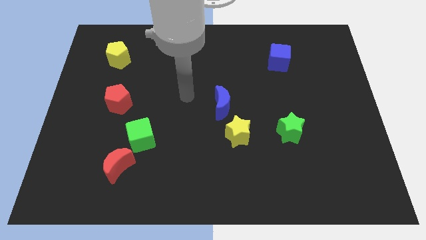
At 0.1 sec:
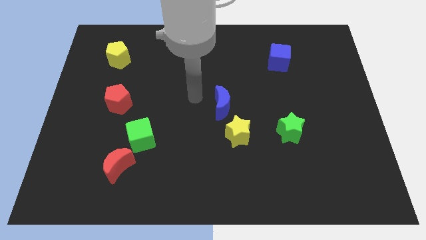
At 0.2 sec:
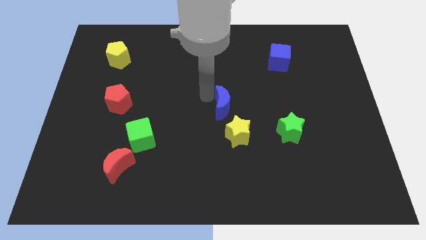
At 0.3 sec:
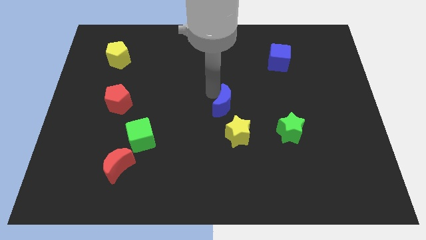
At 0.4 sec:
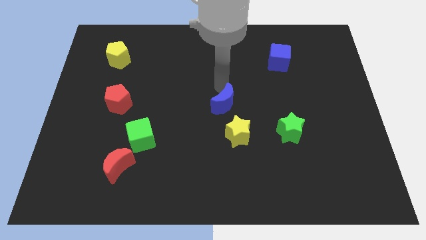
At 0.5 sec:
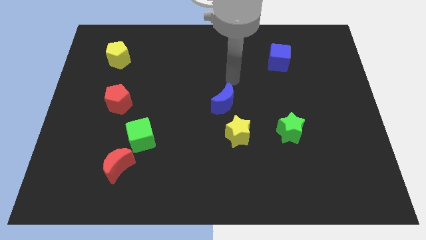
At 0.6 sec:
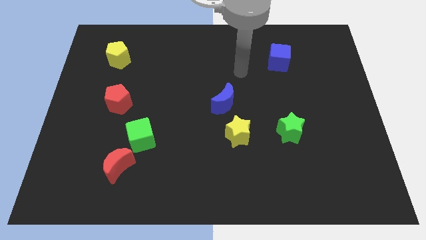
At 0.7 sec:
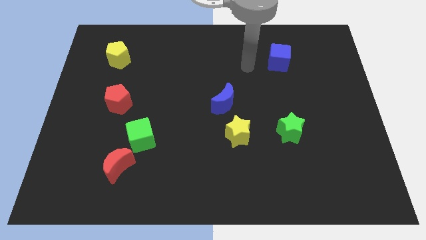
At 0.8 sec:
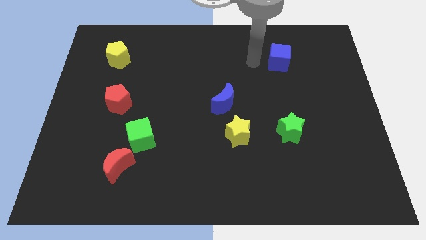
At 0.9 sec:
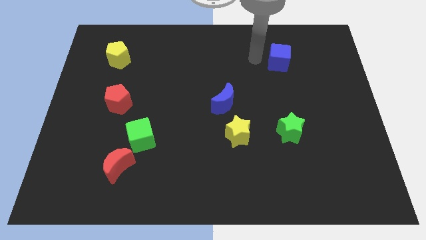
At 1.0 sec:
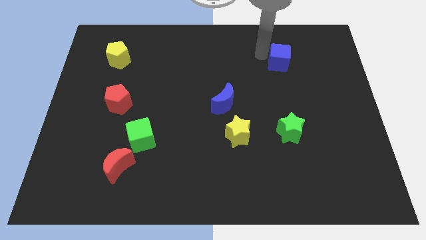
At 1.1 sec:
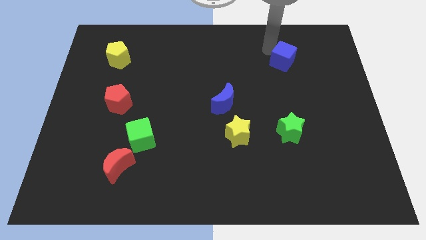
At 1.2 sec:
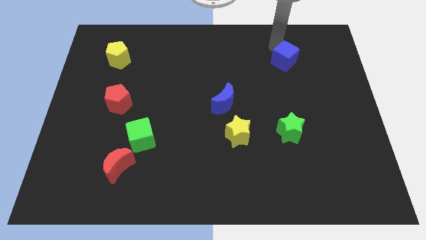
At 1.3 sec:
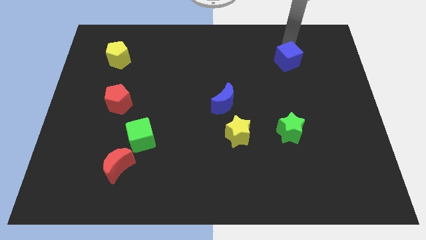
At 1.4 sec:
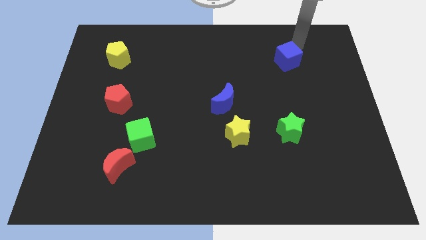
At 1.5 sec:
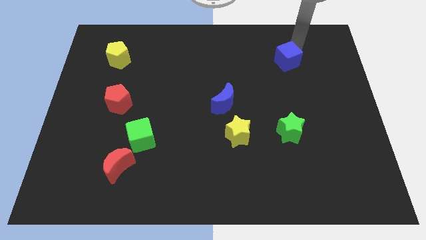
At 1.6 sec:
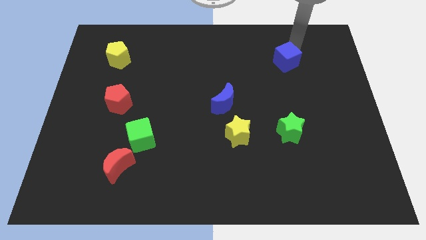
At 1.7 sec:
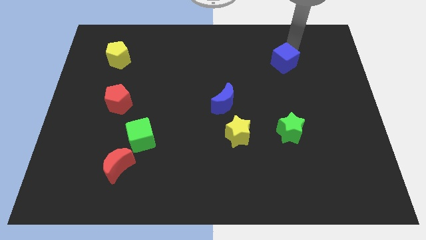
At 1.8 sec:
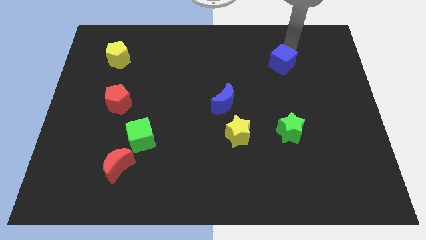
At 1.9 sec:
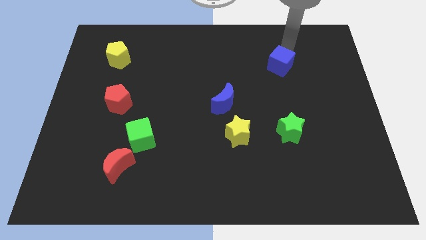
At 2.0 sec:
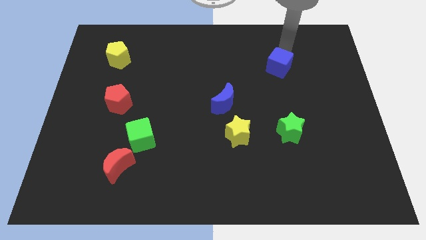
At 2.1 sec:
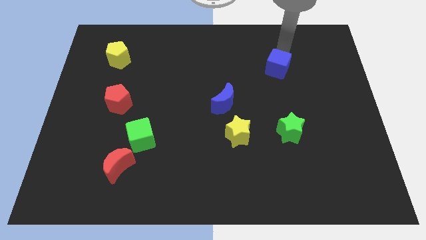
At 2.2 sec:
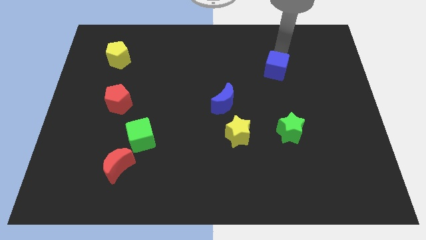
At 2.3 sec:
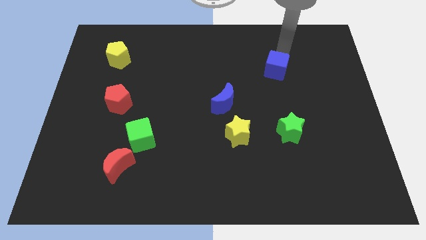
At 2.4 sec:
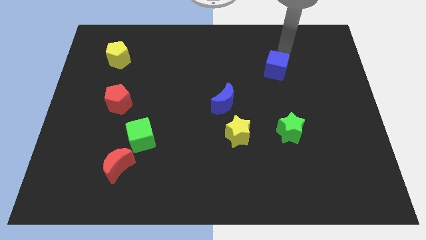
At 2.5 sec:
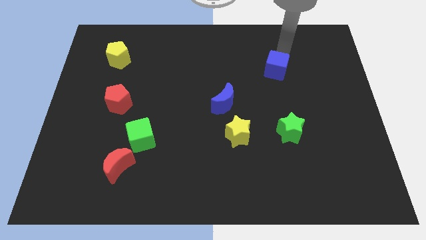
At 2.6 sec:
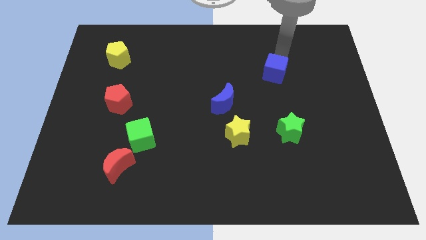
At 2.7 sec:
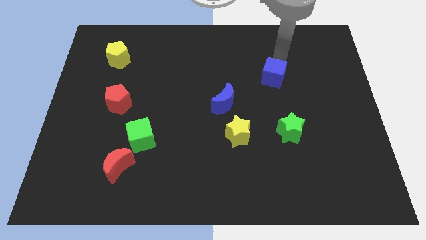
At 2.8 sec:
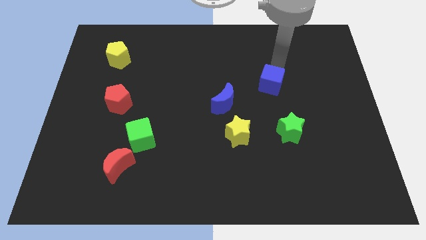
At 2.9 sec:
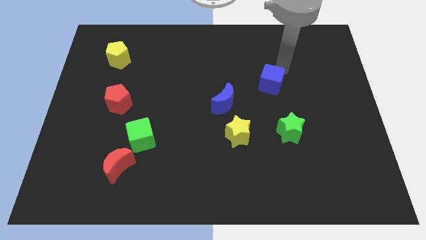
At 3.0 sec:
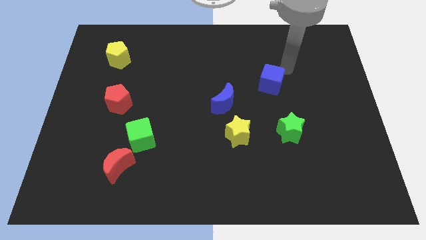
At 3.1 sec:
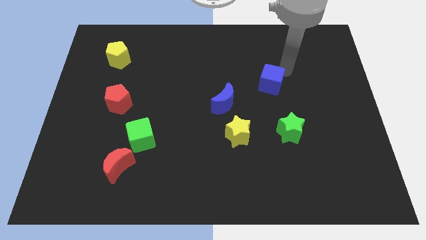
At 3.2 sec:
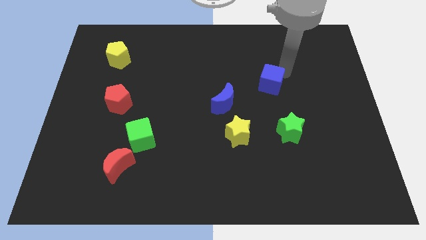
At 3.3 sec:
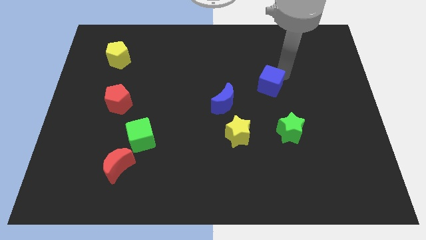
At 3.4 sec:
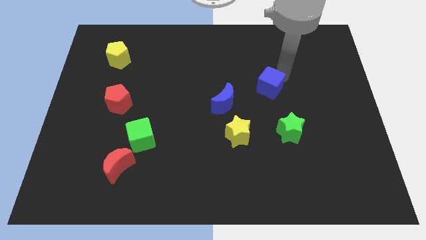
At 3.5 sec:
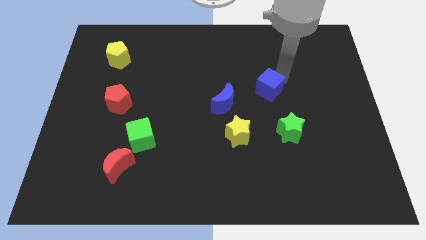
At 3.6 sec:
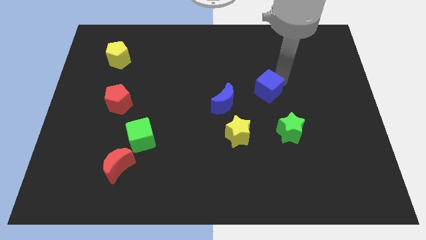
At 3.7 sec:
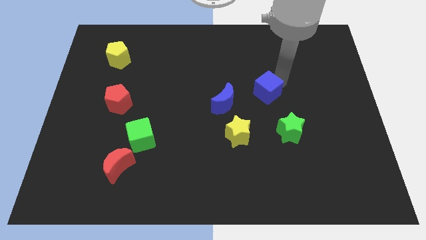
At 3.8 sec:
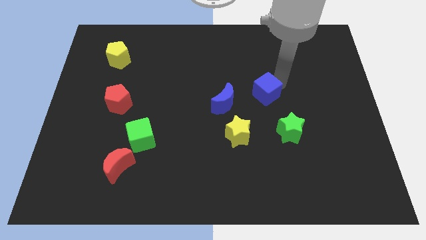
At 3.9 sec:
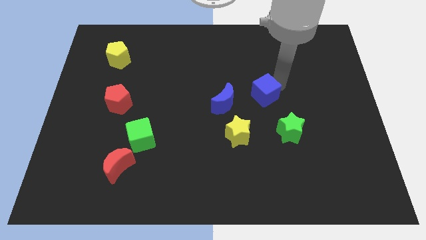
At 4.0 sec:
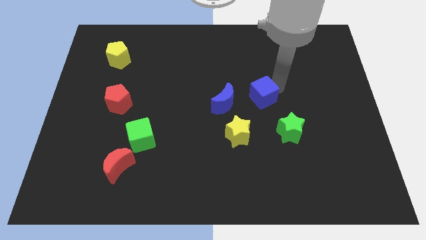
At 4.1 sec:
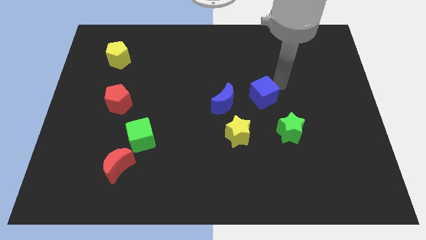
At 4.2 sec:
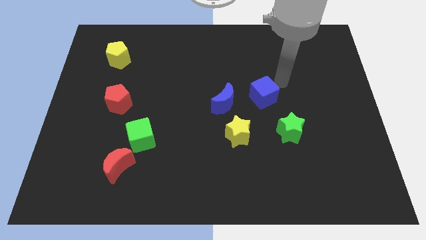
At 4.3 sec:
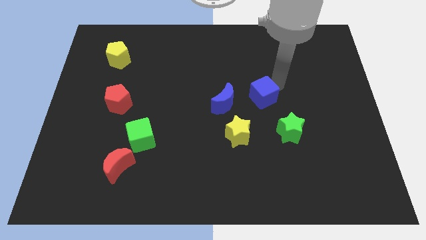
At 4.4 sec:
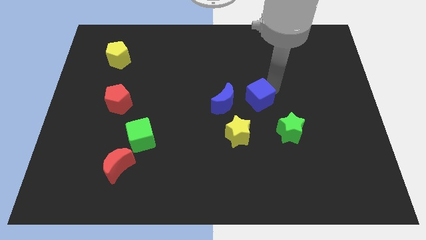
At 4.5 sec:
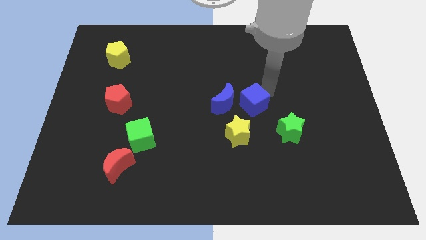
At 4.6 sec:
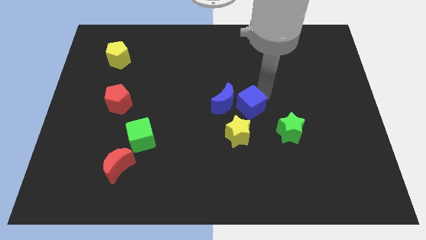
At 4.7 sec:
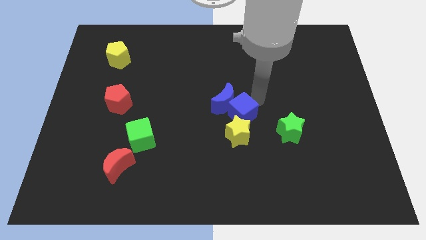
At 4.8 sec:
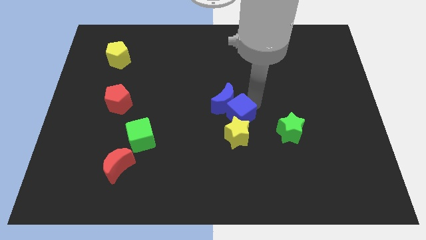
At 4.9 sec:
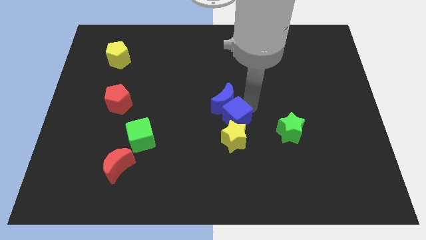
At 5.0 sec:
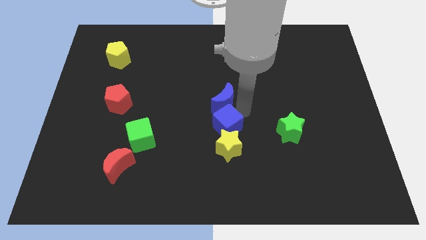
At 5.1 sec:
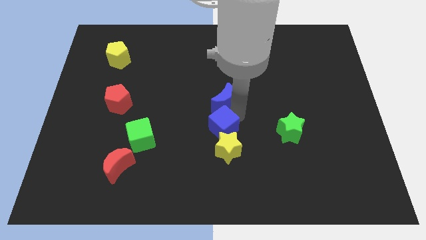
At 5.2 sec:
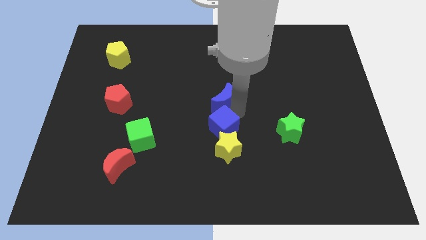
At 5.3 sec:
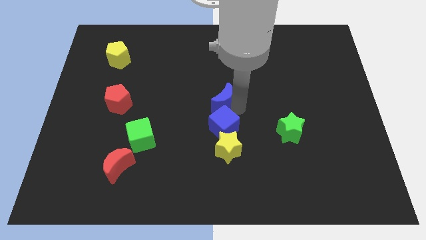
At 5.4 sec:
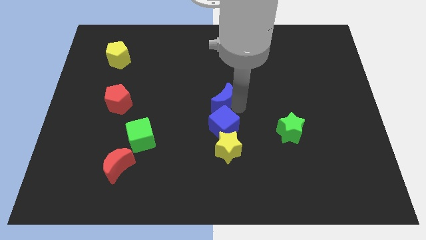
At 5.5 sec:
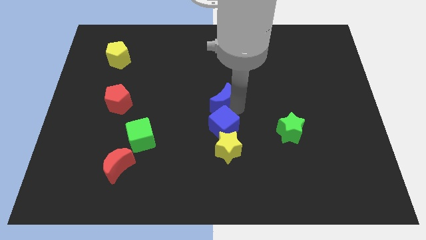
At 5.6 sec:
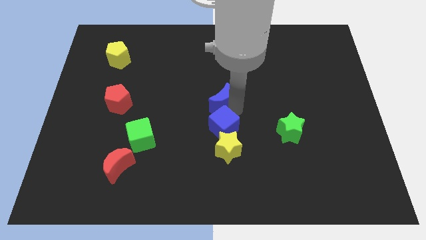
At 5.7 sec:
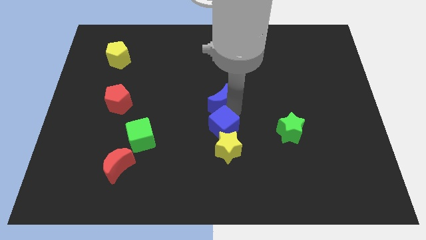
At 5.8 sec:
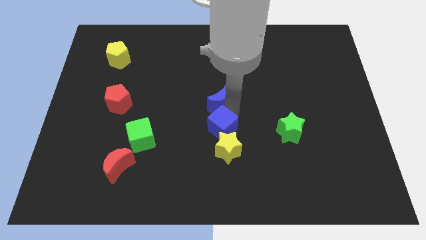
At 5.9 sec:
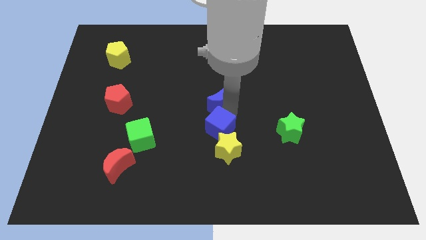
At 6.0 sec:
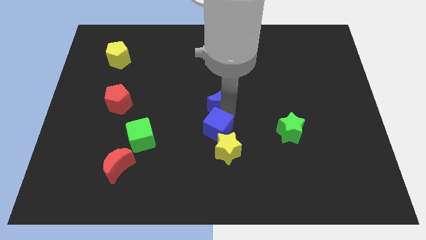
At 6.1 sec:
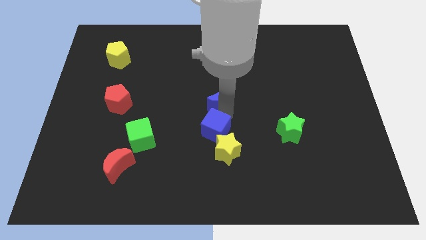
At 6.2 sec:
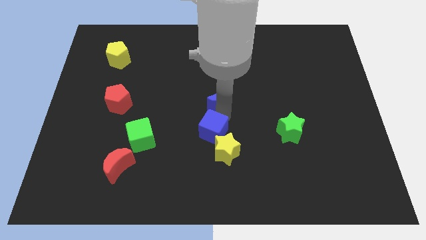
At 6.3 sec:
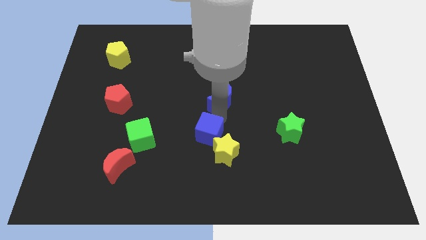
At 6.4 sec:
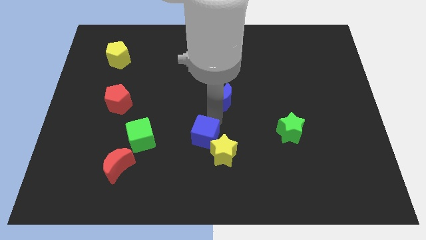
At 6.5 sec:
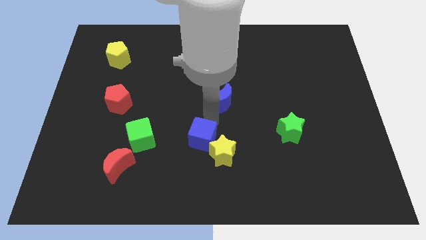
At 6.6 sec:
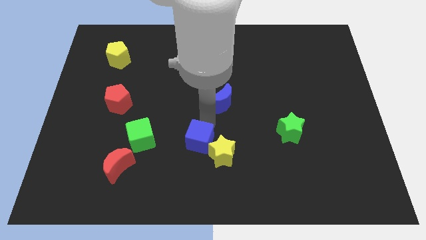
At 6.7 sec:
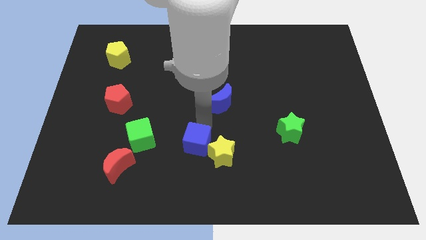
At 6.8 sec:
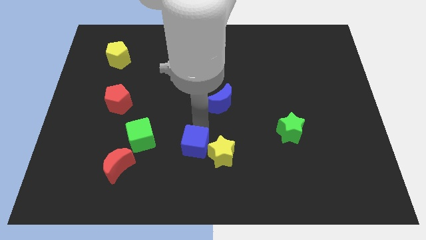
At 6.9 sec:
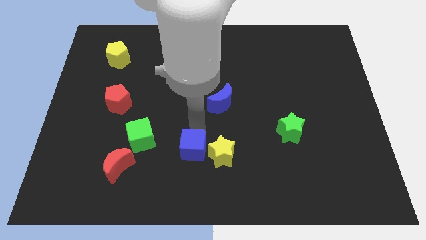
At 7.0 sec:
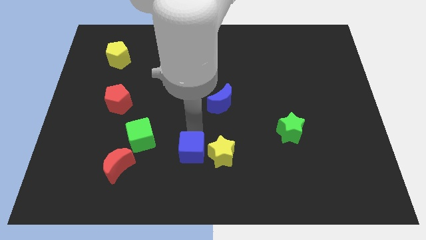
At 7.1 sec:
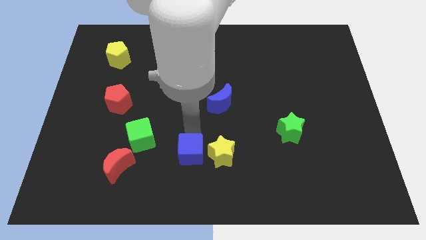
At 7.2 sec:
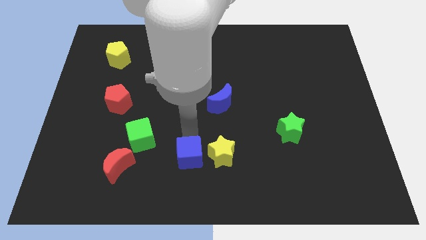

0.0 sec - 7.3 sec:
move the blue cube to the bottom left of the yellow star

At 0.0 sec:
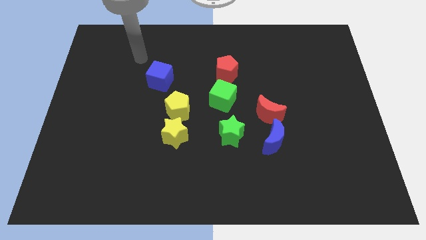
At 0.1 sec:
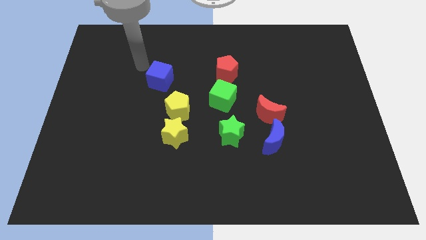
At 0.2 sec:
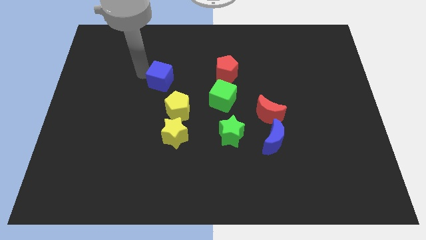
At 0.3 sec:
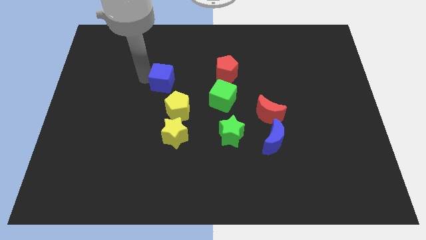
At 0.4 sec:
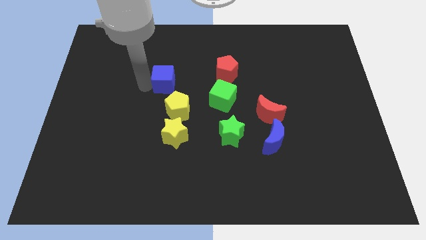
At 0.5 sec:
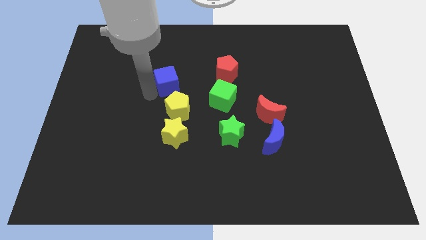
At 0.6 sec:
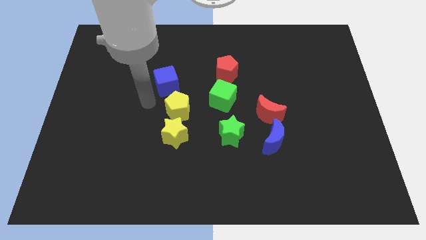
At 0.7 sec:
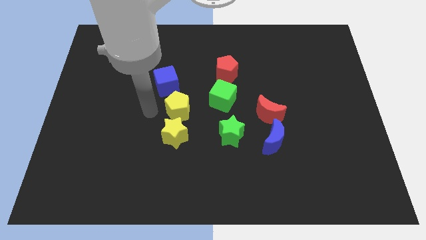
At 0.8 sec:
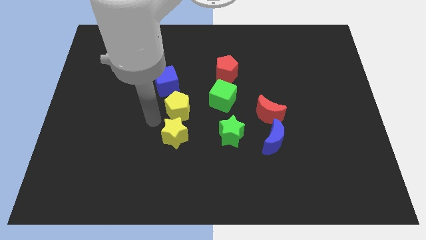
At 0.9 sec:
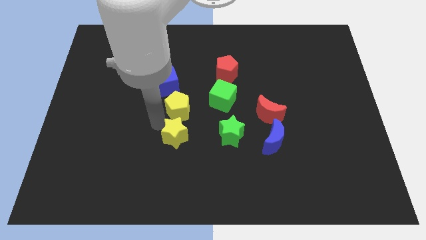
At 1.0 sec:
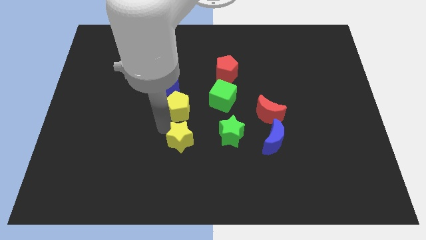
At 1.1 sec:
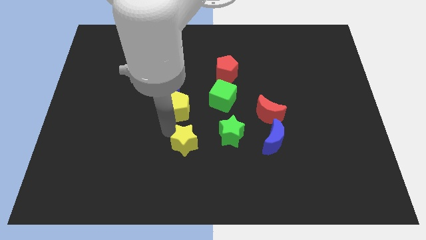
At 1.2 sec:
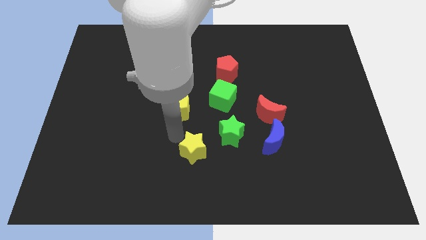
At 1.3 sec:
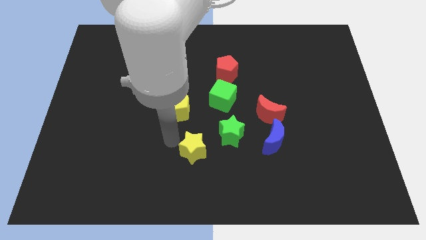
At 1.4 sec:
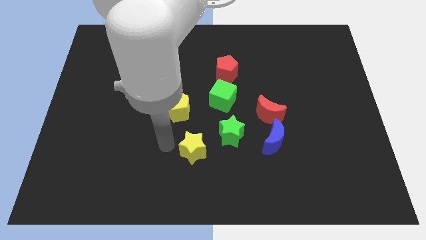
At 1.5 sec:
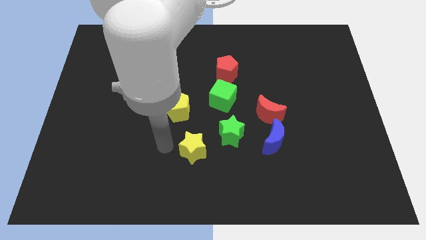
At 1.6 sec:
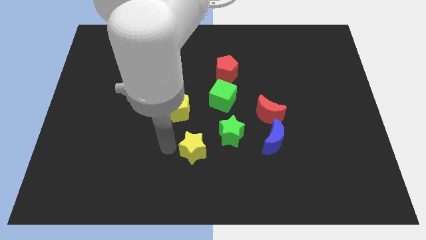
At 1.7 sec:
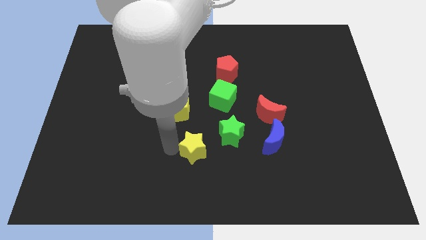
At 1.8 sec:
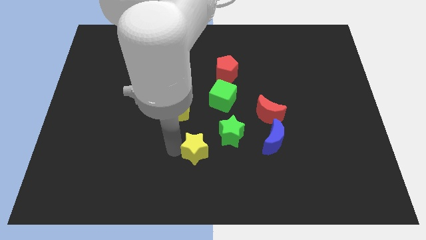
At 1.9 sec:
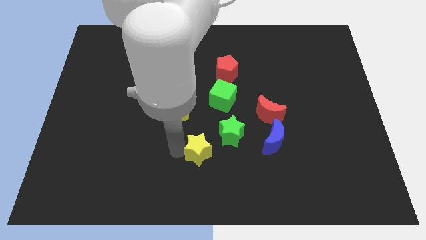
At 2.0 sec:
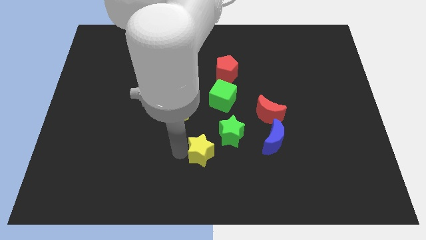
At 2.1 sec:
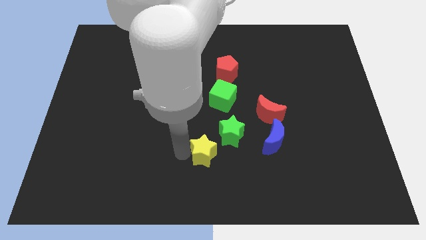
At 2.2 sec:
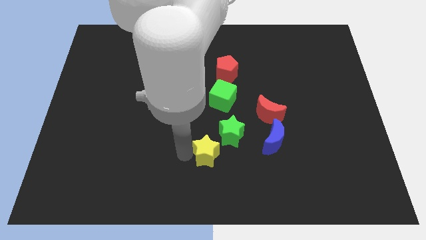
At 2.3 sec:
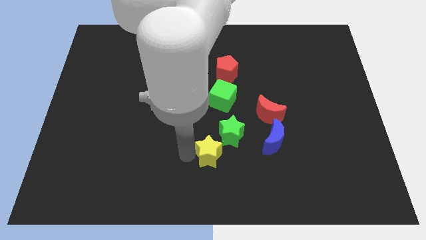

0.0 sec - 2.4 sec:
push the yellow star below the green cube
